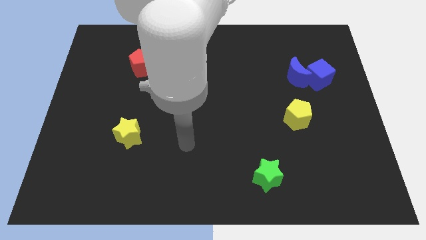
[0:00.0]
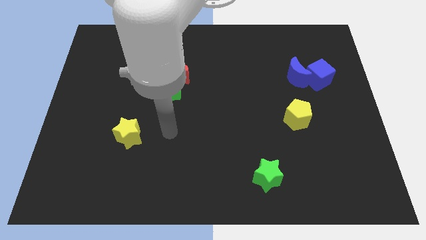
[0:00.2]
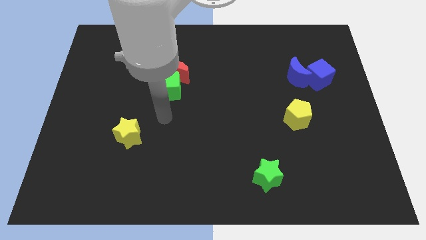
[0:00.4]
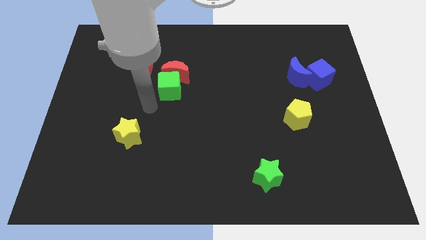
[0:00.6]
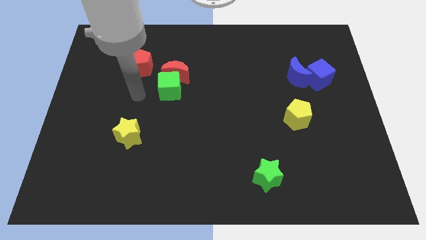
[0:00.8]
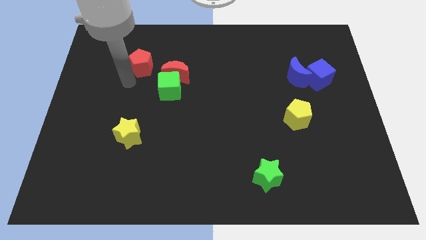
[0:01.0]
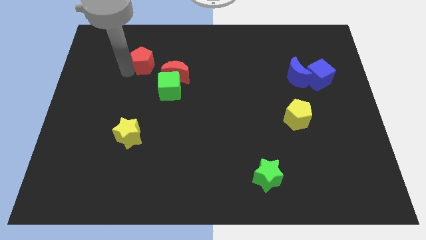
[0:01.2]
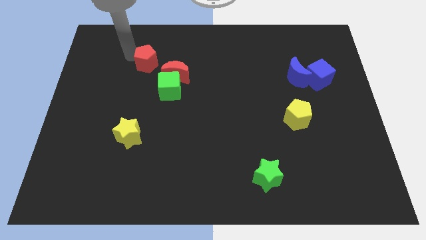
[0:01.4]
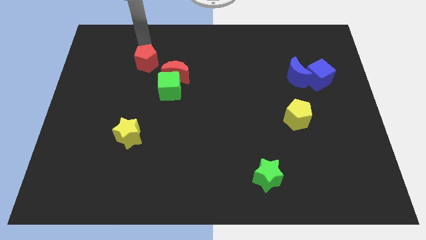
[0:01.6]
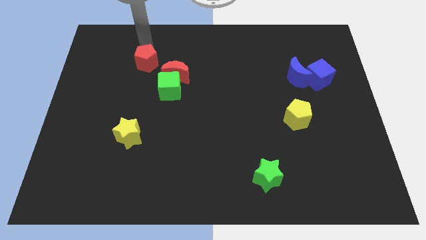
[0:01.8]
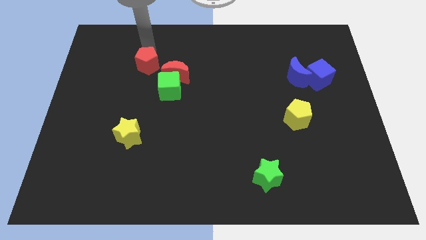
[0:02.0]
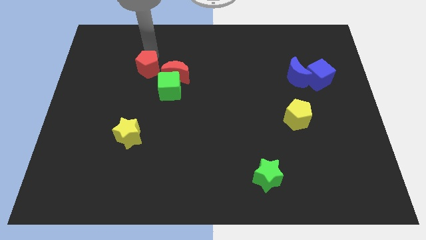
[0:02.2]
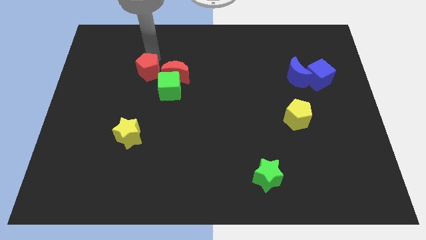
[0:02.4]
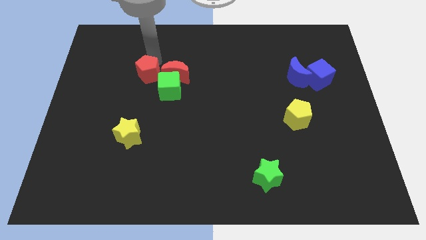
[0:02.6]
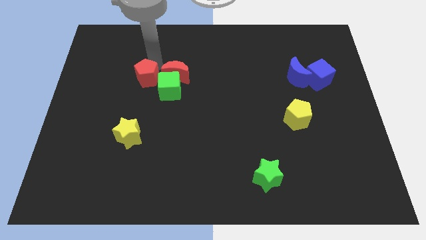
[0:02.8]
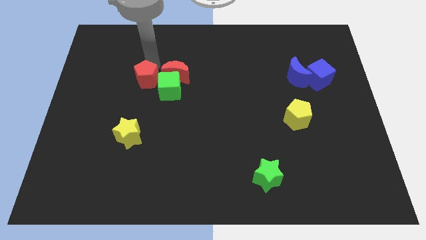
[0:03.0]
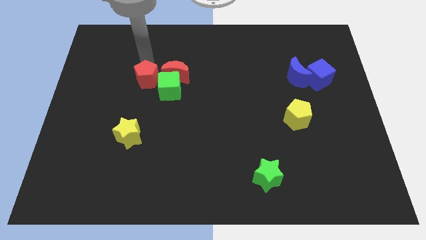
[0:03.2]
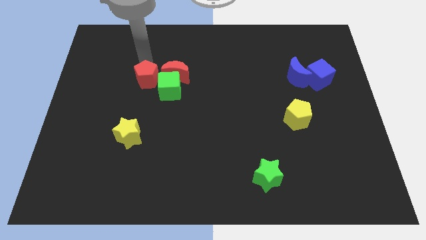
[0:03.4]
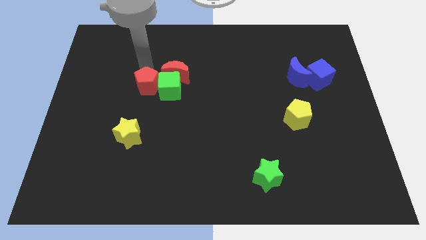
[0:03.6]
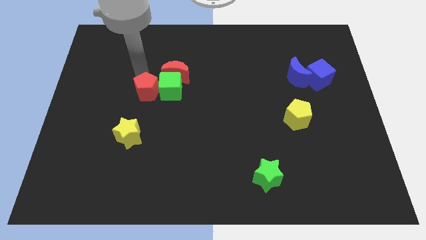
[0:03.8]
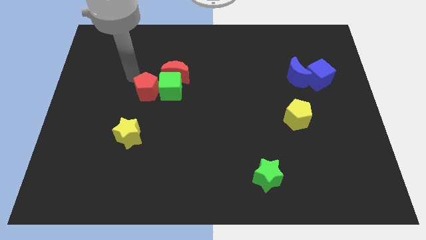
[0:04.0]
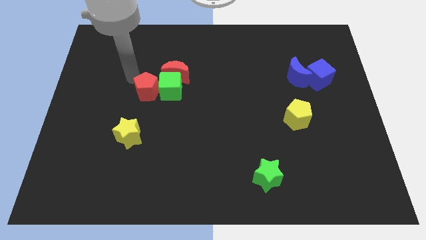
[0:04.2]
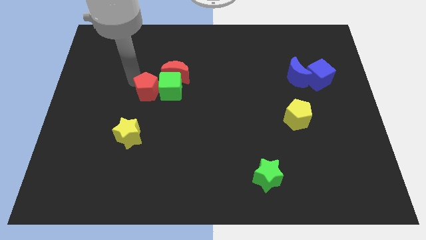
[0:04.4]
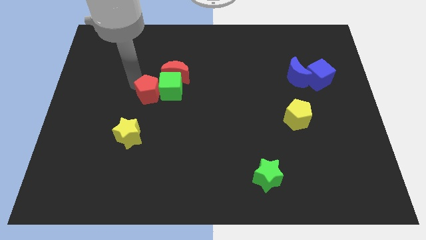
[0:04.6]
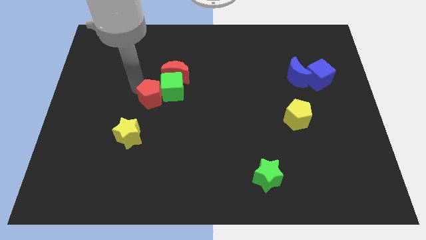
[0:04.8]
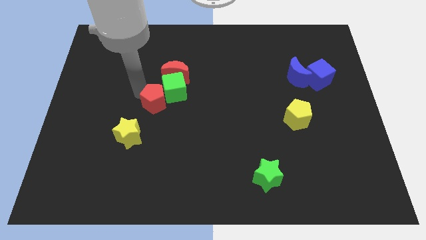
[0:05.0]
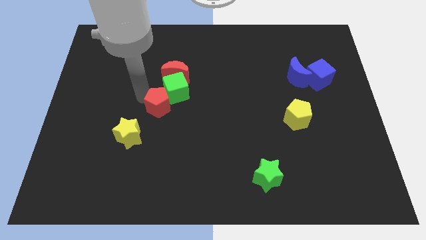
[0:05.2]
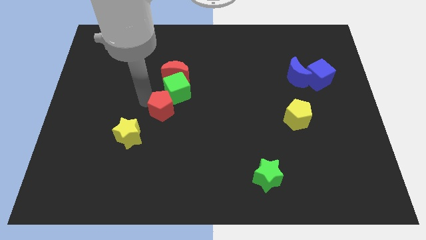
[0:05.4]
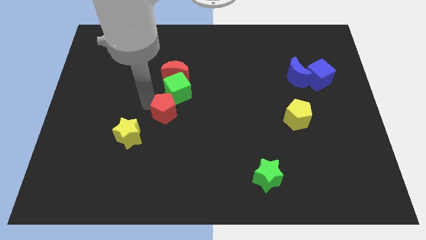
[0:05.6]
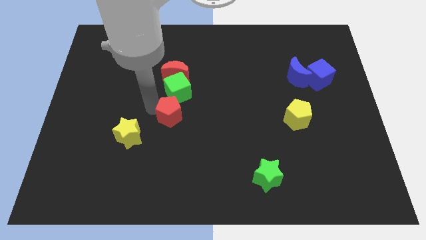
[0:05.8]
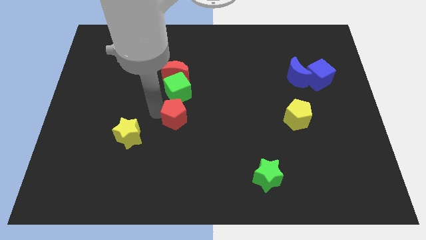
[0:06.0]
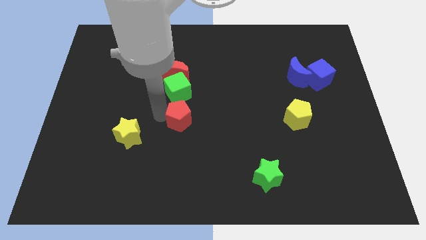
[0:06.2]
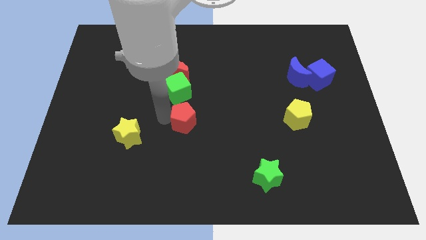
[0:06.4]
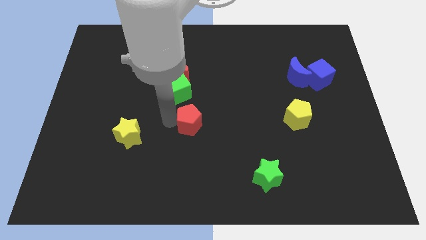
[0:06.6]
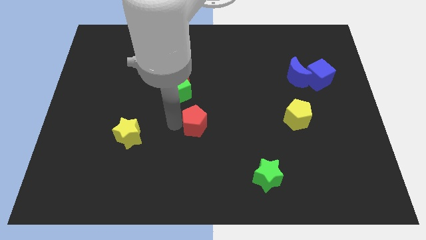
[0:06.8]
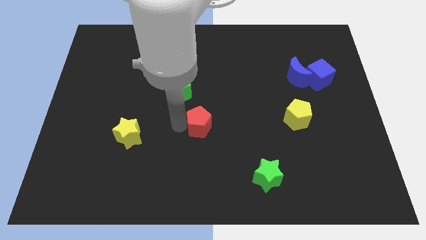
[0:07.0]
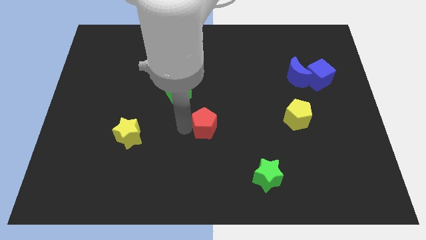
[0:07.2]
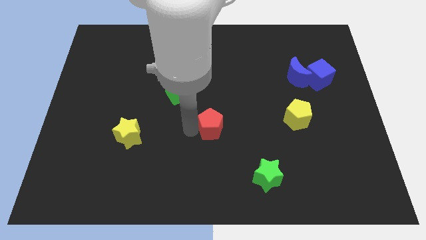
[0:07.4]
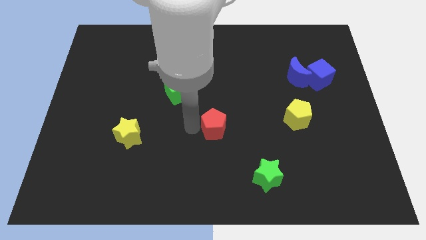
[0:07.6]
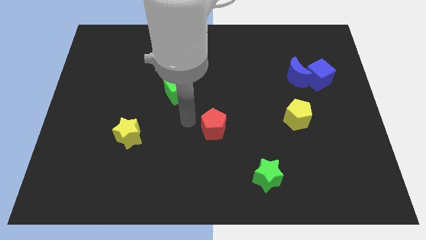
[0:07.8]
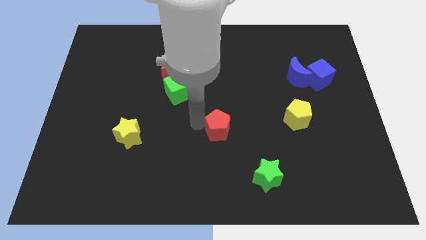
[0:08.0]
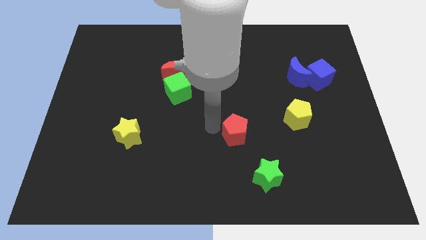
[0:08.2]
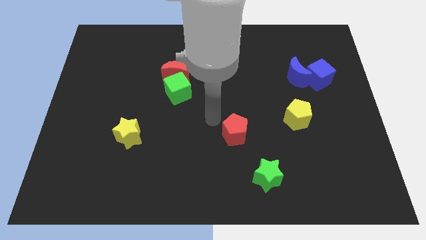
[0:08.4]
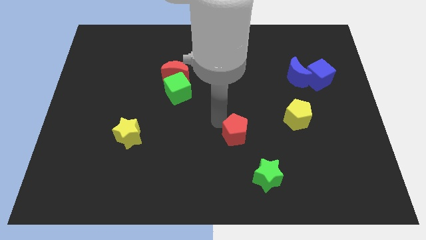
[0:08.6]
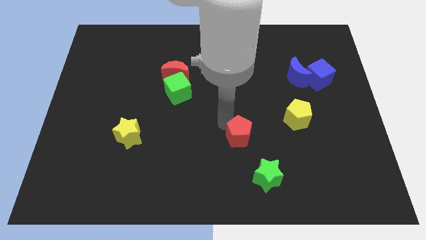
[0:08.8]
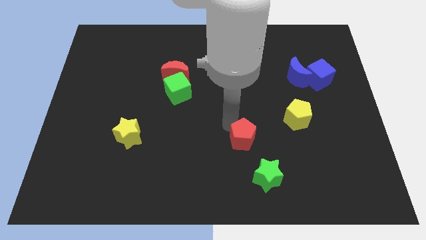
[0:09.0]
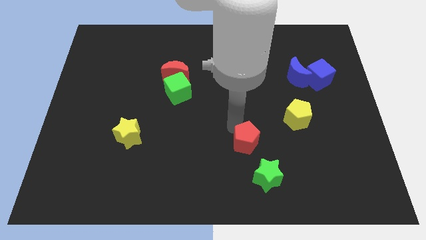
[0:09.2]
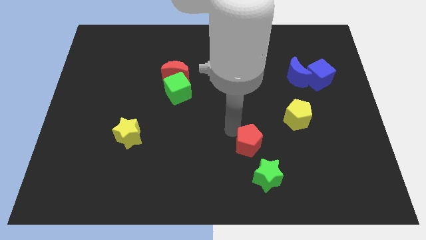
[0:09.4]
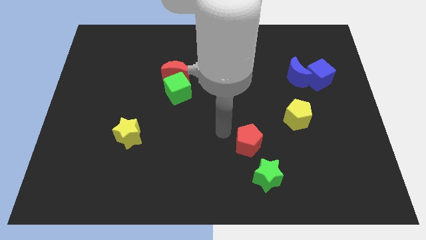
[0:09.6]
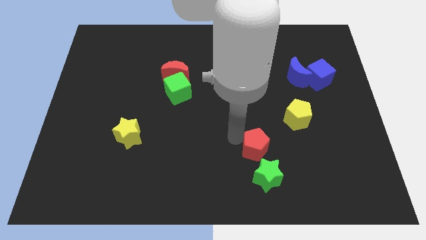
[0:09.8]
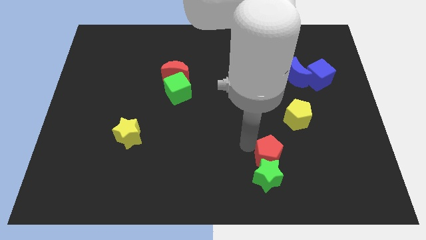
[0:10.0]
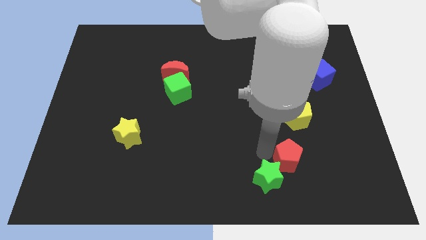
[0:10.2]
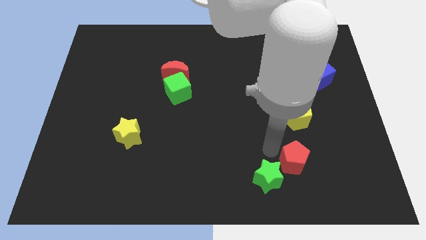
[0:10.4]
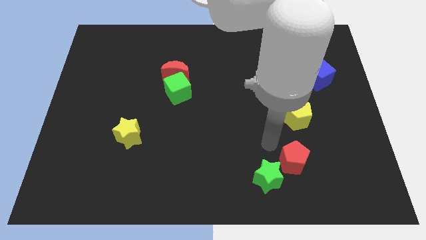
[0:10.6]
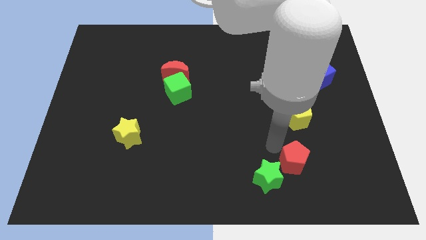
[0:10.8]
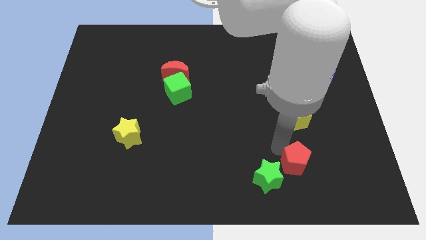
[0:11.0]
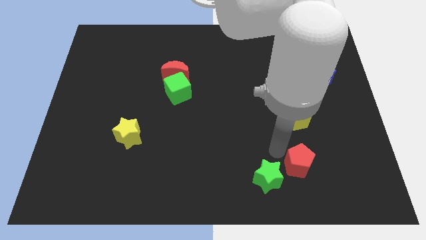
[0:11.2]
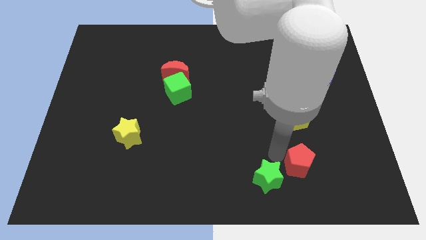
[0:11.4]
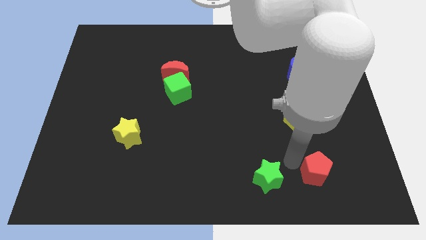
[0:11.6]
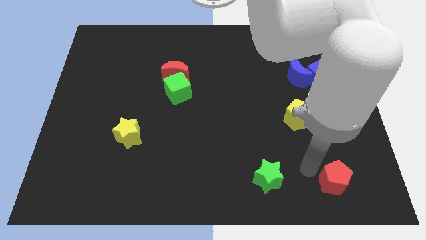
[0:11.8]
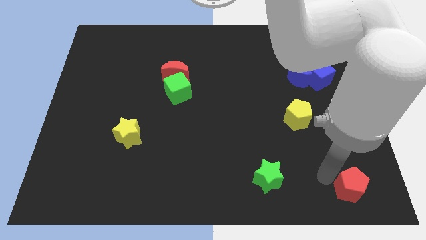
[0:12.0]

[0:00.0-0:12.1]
slide the red pentagon to the bottom right of the board
